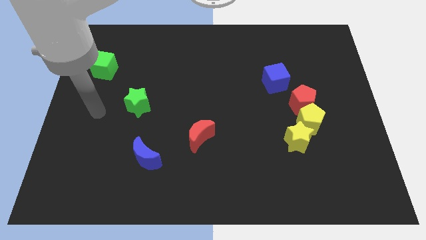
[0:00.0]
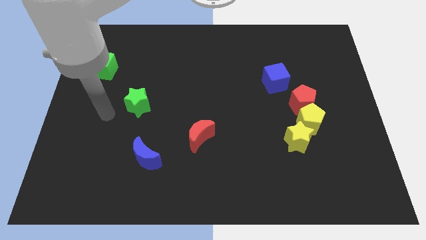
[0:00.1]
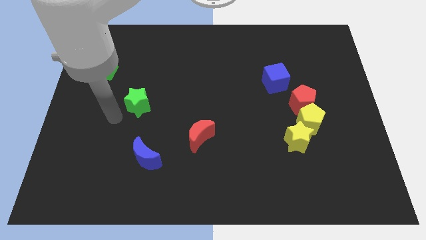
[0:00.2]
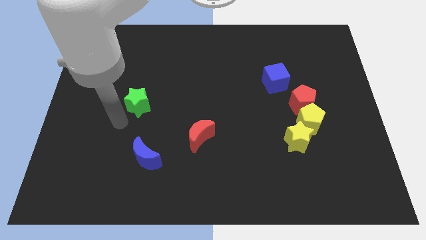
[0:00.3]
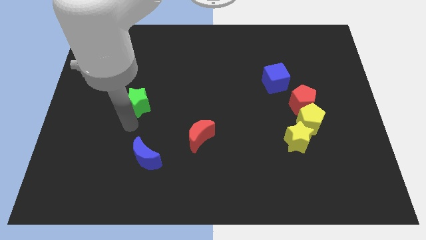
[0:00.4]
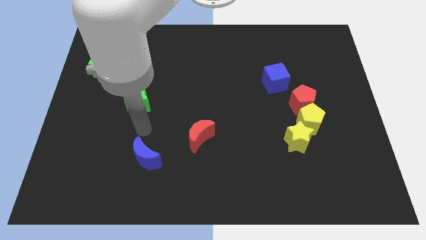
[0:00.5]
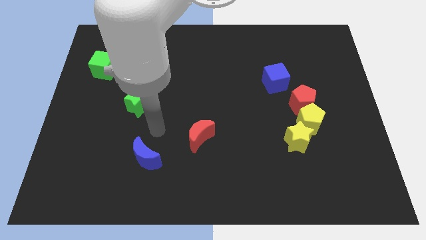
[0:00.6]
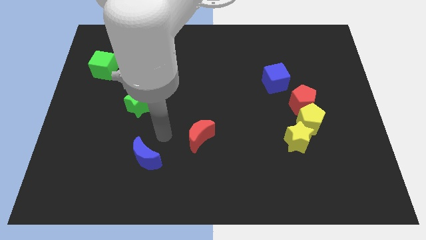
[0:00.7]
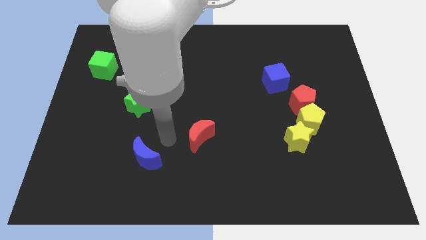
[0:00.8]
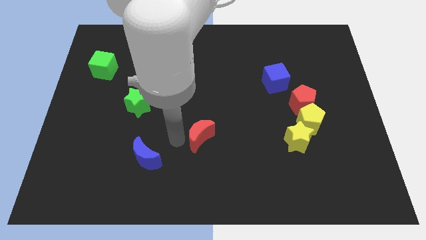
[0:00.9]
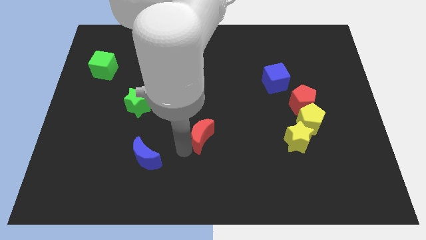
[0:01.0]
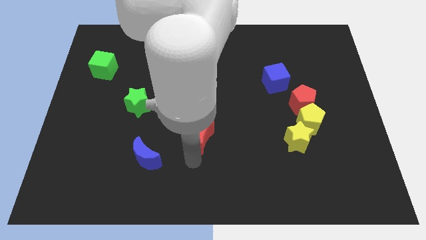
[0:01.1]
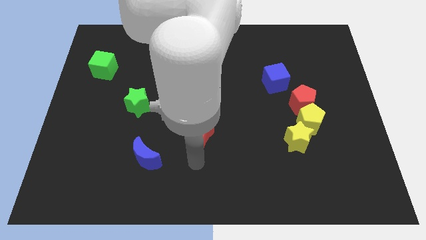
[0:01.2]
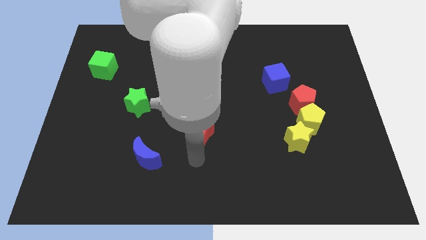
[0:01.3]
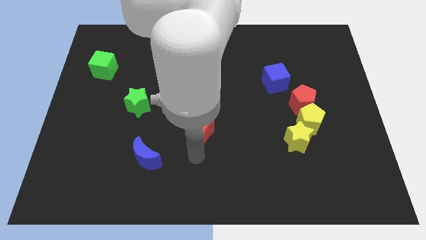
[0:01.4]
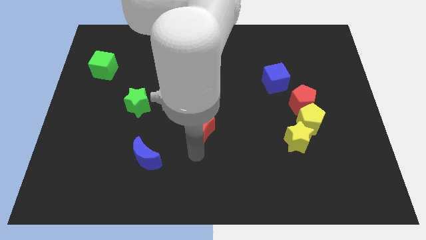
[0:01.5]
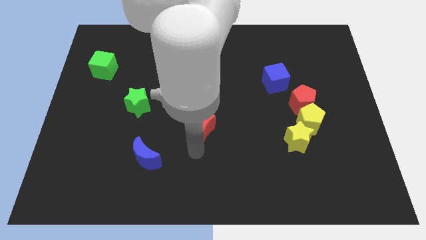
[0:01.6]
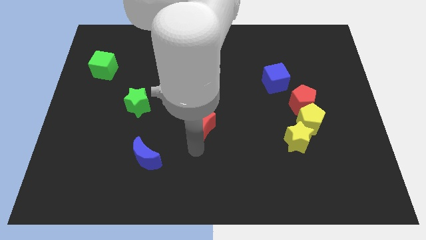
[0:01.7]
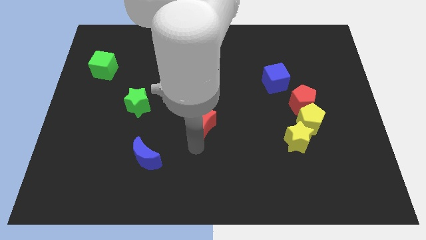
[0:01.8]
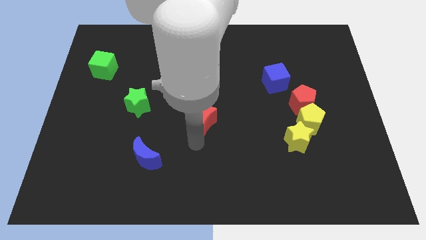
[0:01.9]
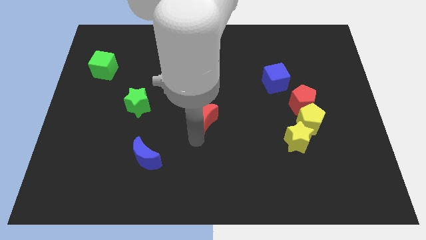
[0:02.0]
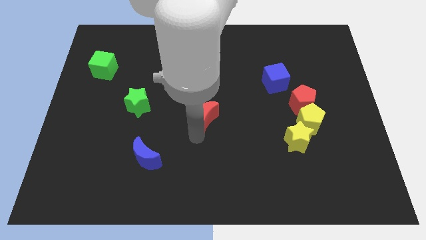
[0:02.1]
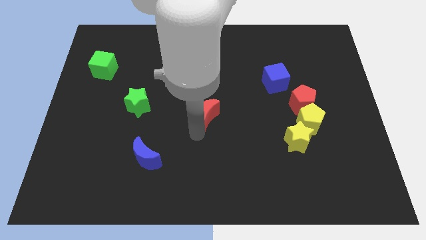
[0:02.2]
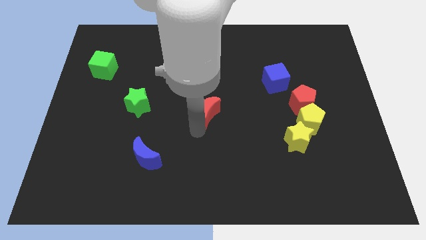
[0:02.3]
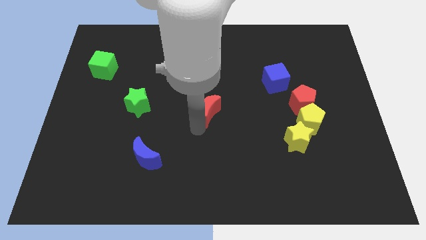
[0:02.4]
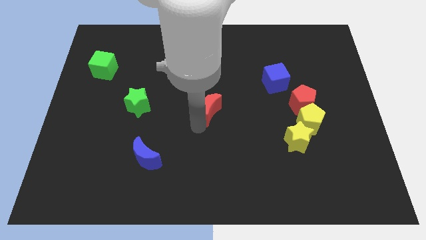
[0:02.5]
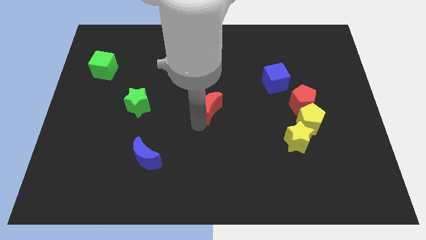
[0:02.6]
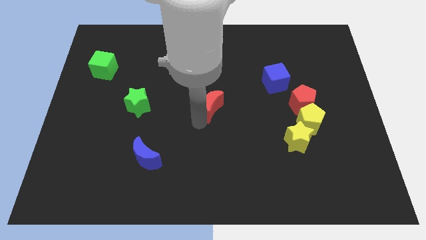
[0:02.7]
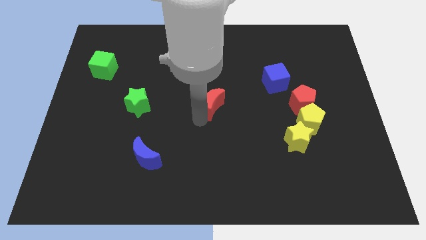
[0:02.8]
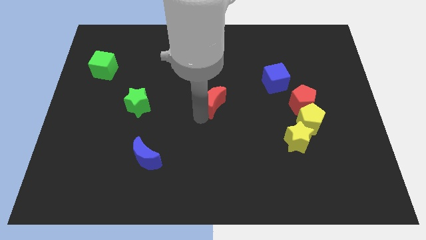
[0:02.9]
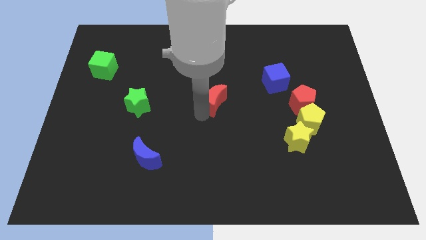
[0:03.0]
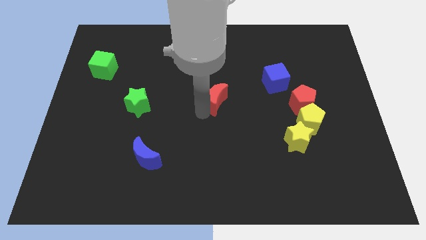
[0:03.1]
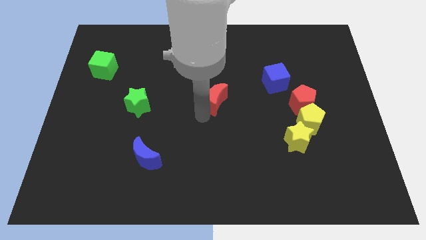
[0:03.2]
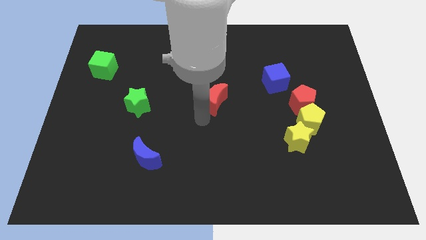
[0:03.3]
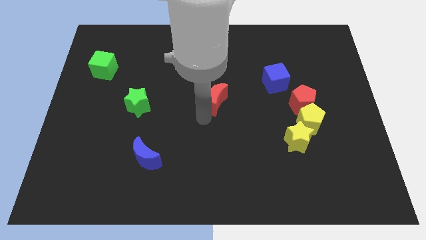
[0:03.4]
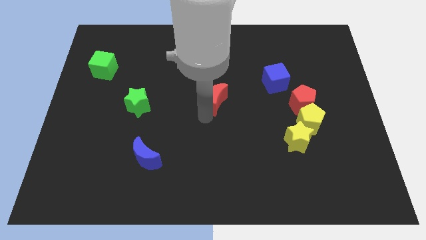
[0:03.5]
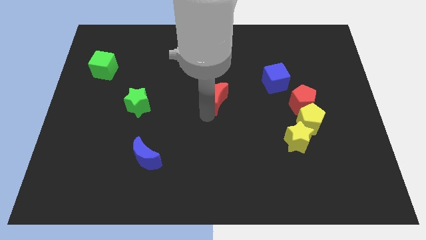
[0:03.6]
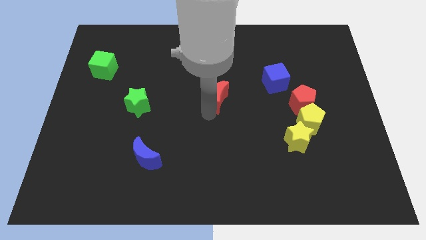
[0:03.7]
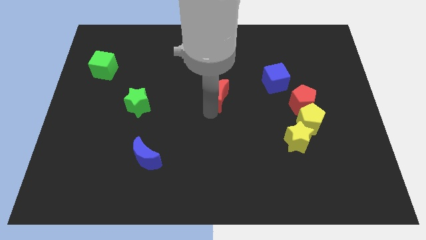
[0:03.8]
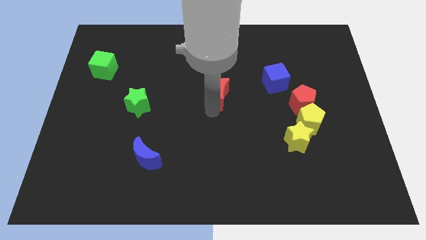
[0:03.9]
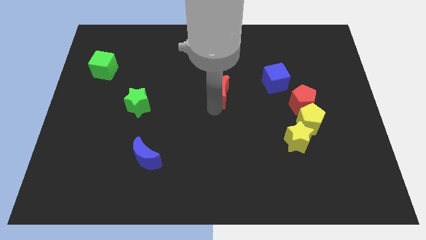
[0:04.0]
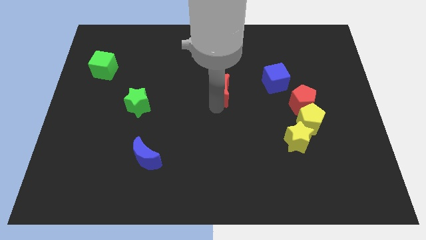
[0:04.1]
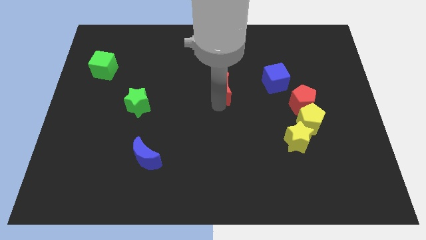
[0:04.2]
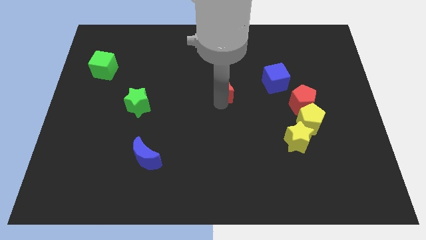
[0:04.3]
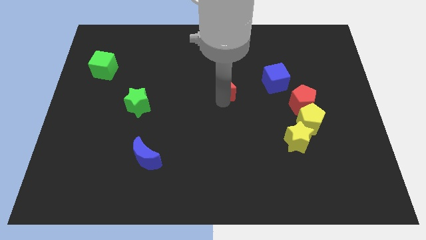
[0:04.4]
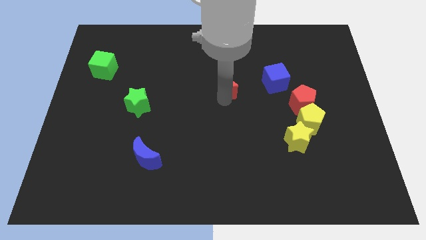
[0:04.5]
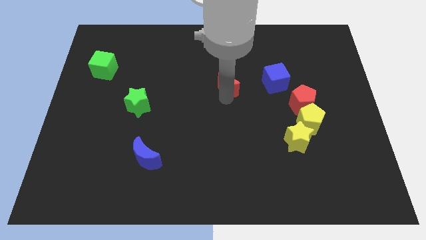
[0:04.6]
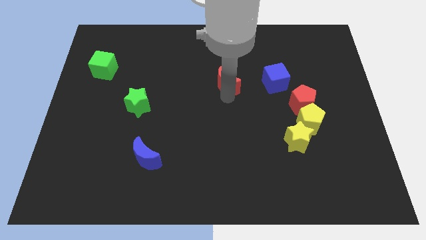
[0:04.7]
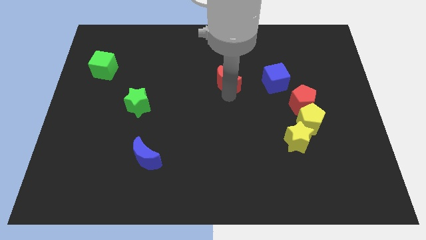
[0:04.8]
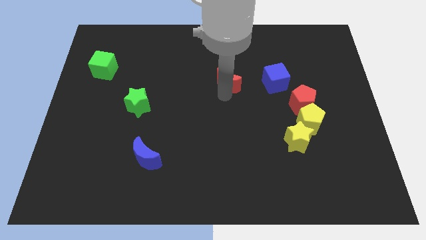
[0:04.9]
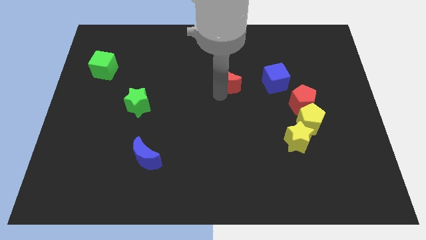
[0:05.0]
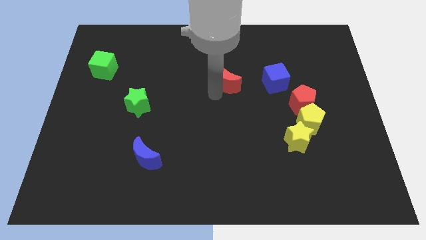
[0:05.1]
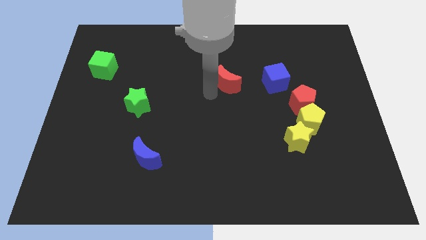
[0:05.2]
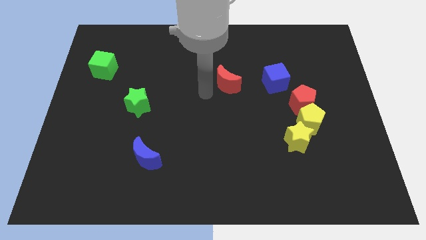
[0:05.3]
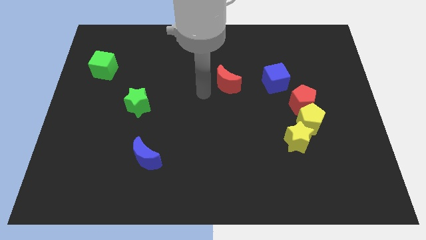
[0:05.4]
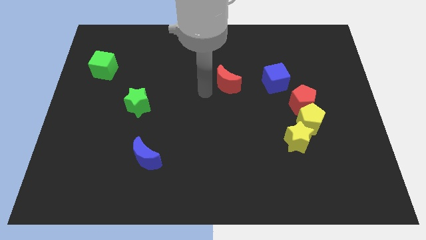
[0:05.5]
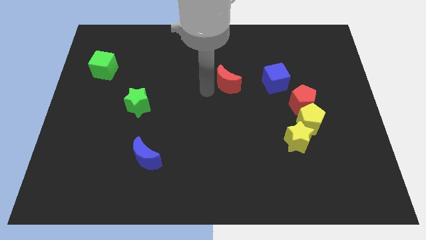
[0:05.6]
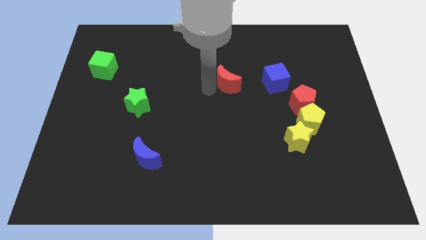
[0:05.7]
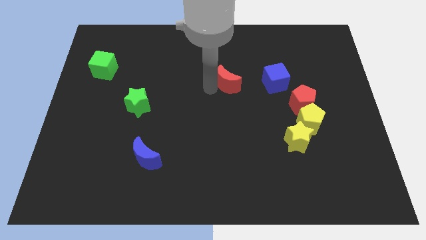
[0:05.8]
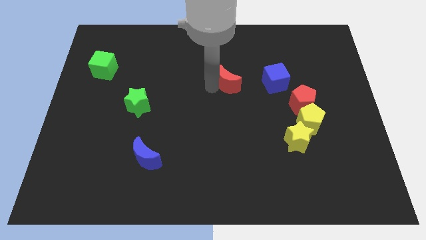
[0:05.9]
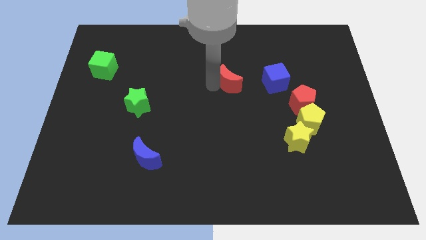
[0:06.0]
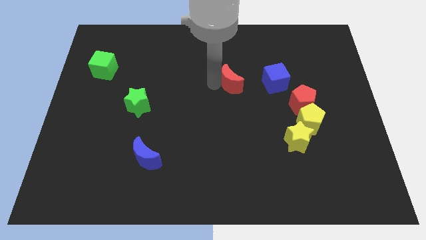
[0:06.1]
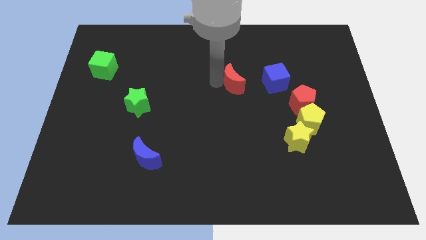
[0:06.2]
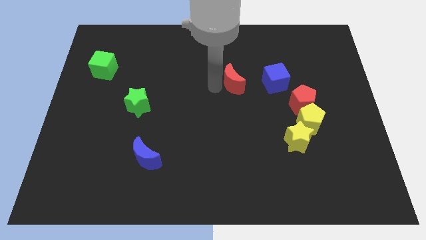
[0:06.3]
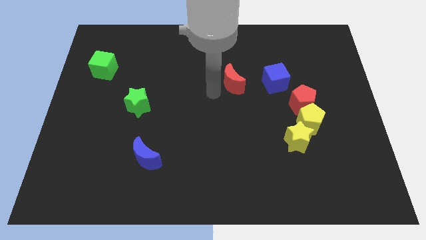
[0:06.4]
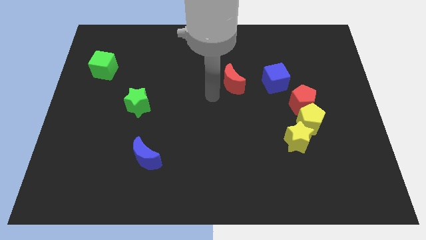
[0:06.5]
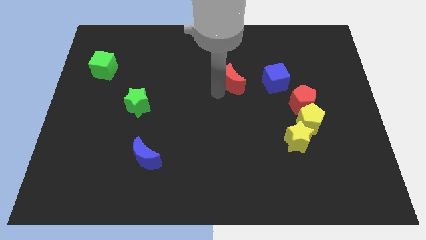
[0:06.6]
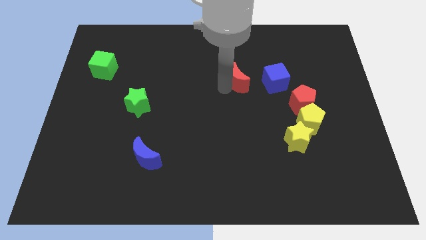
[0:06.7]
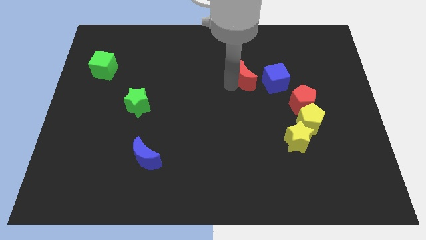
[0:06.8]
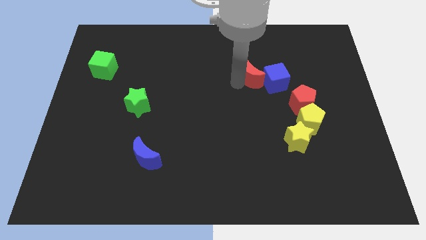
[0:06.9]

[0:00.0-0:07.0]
slide the red moon upwards and right

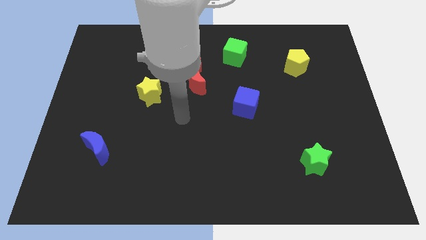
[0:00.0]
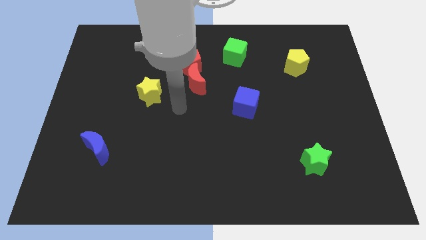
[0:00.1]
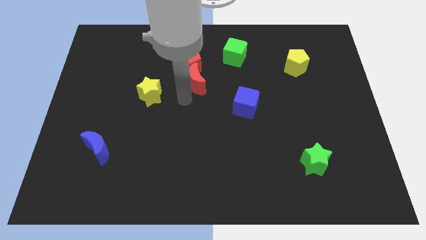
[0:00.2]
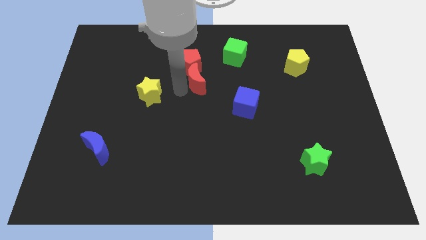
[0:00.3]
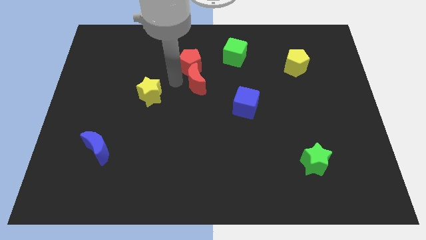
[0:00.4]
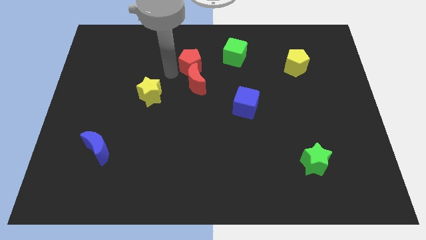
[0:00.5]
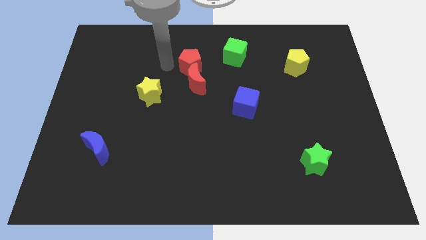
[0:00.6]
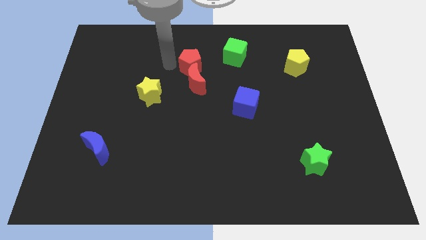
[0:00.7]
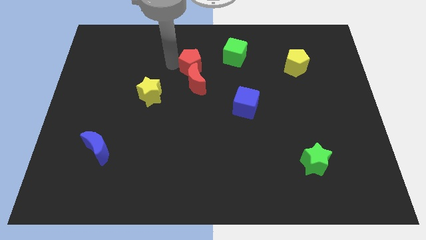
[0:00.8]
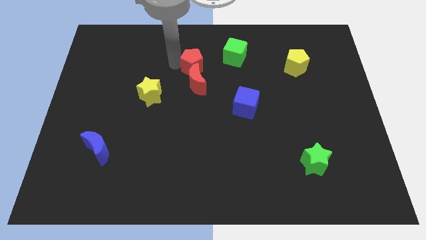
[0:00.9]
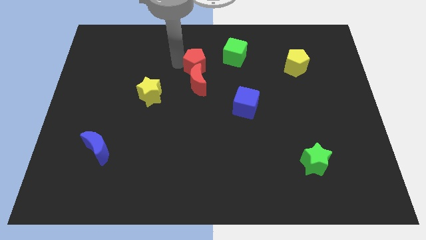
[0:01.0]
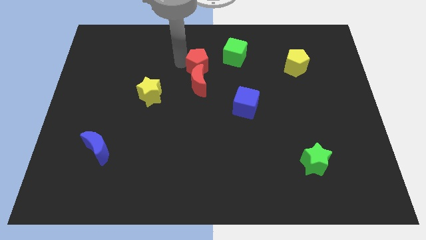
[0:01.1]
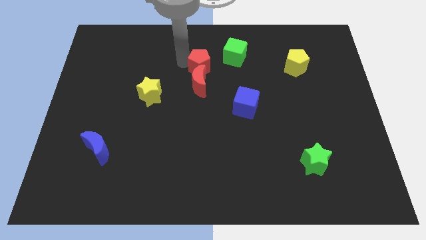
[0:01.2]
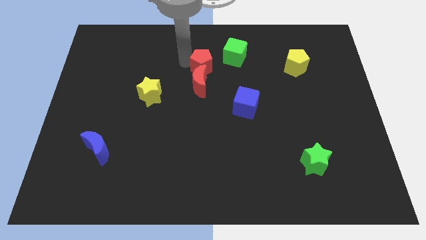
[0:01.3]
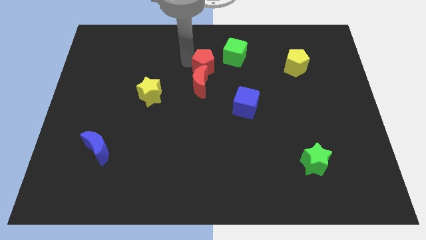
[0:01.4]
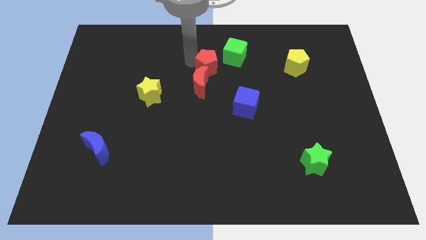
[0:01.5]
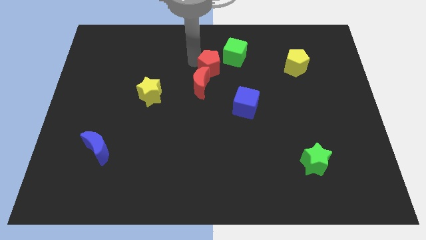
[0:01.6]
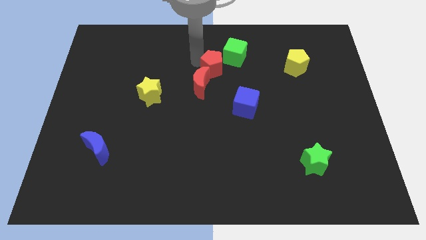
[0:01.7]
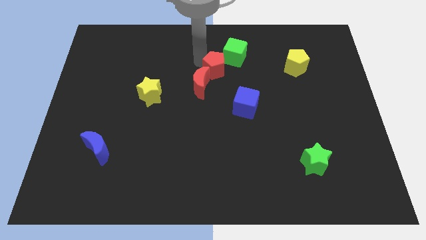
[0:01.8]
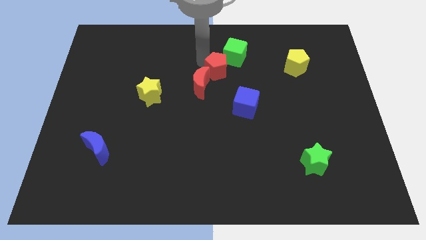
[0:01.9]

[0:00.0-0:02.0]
slightly slide the red pentagon right
